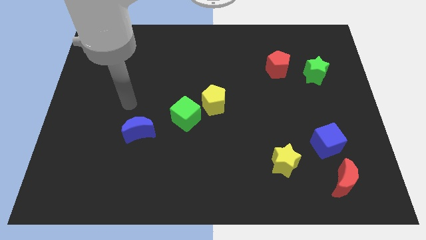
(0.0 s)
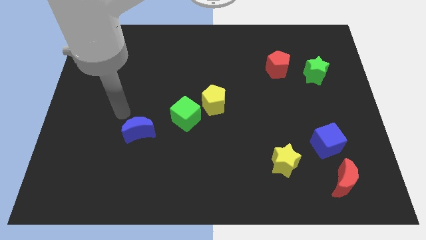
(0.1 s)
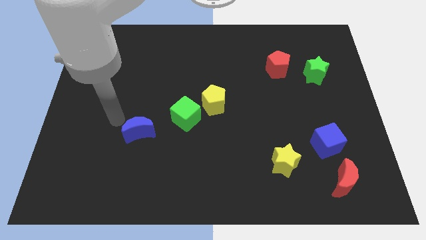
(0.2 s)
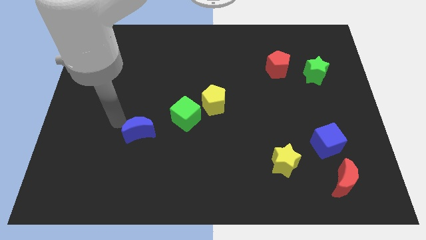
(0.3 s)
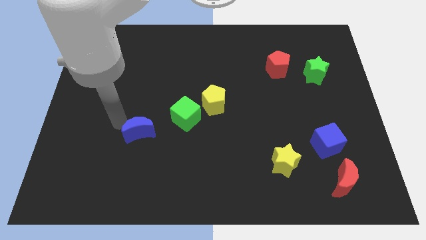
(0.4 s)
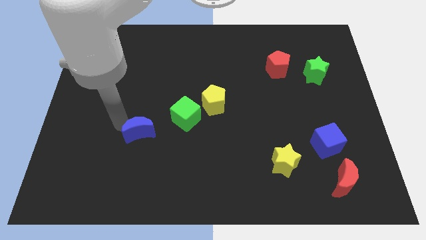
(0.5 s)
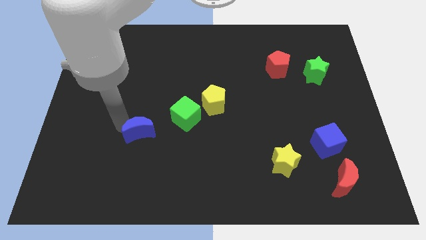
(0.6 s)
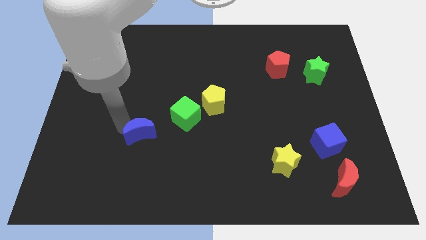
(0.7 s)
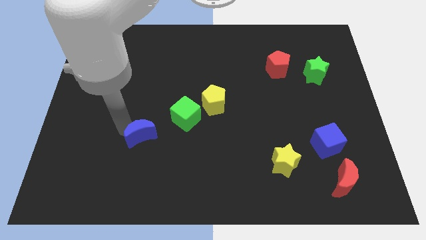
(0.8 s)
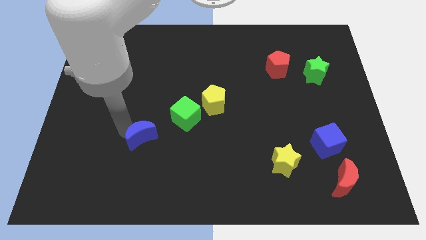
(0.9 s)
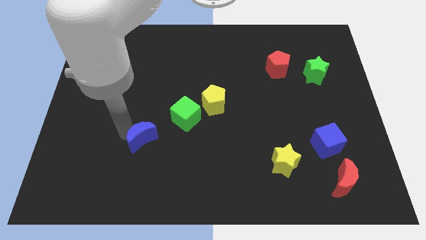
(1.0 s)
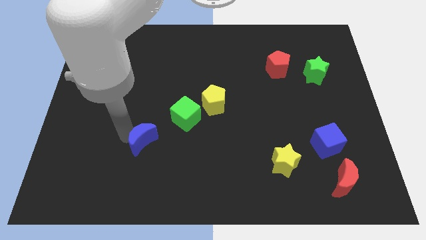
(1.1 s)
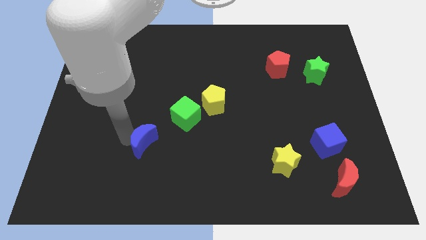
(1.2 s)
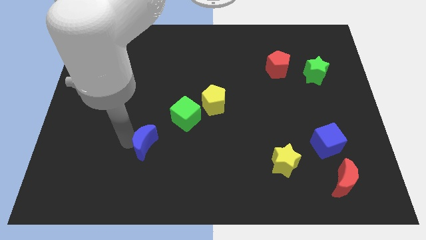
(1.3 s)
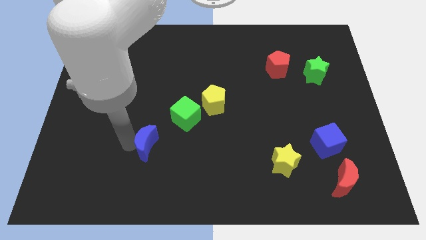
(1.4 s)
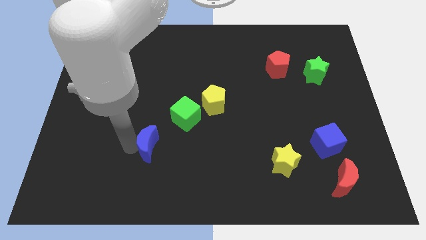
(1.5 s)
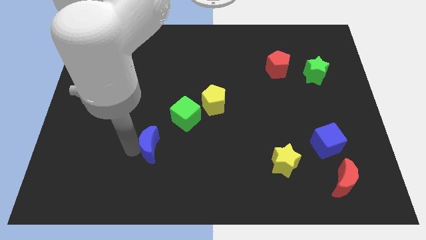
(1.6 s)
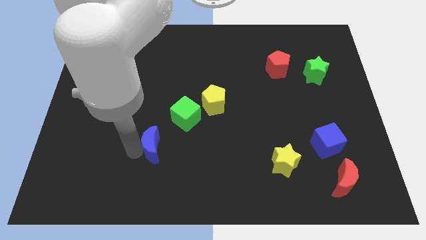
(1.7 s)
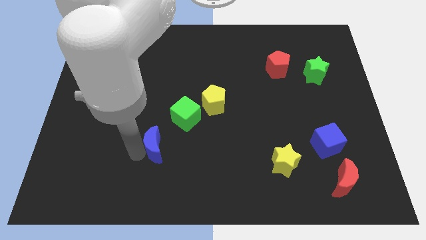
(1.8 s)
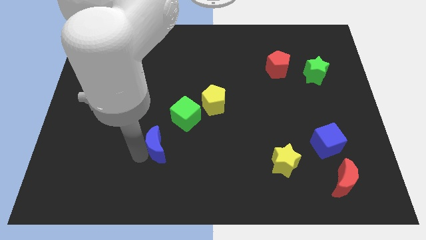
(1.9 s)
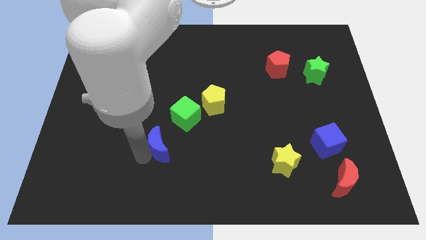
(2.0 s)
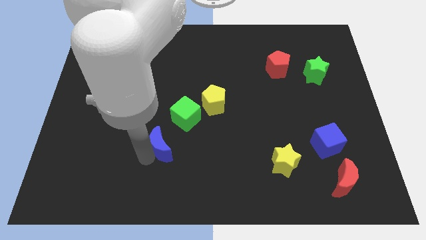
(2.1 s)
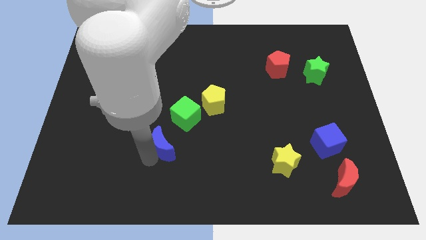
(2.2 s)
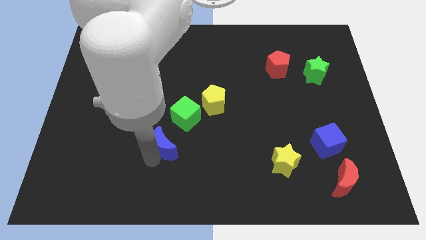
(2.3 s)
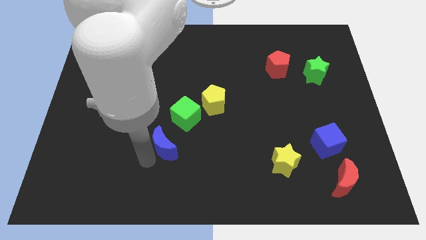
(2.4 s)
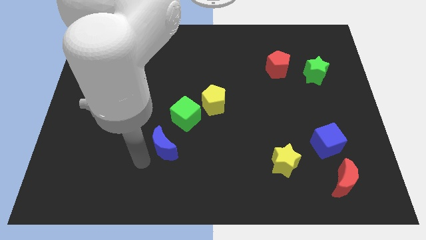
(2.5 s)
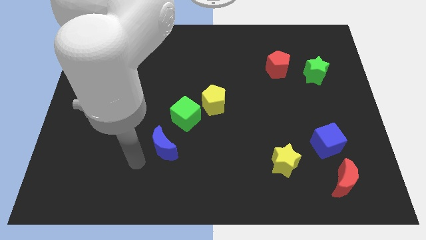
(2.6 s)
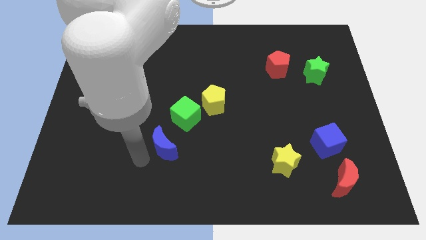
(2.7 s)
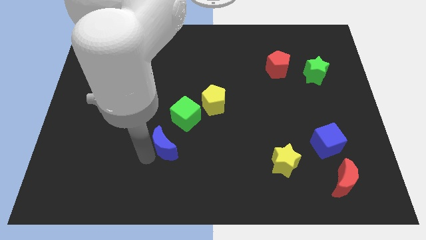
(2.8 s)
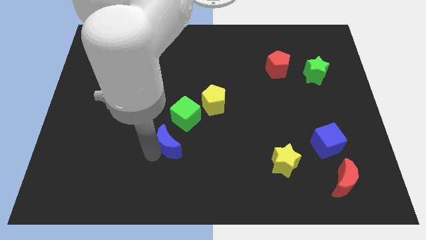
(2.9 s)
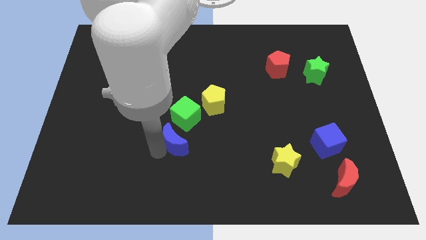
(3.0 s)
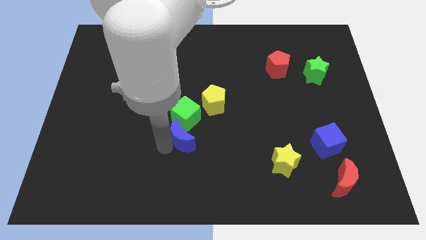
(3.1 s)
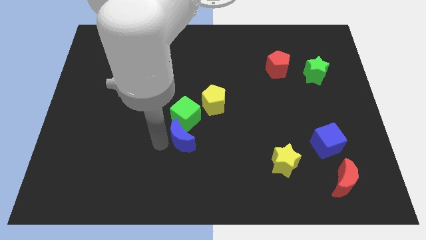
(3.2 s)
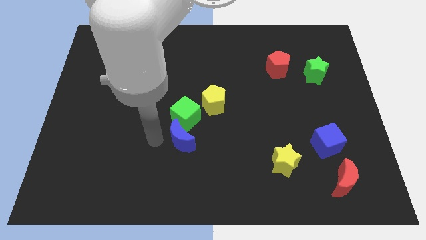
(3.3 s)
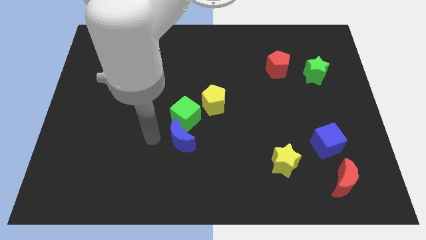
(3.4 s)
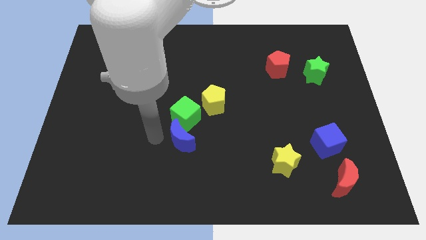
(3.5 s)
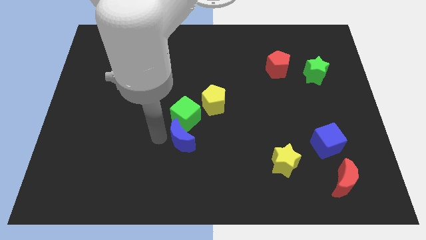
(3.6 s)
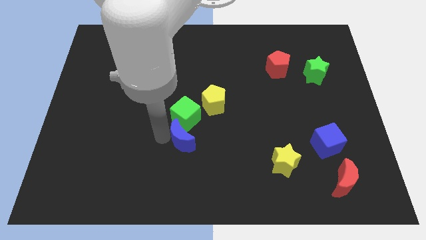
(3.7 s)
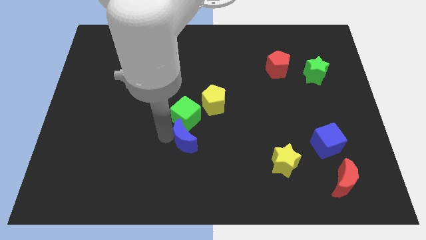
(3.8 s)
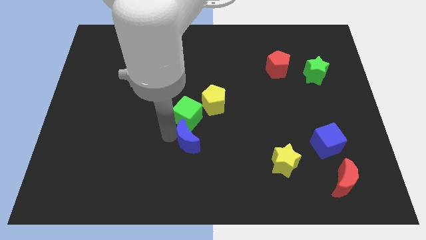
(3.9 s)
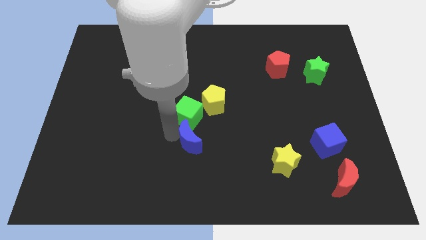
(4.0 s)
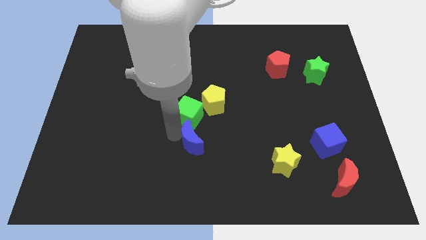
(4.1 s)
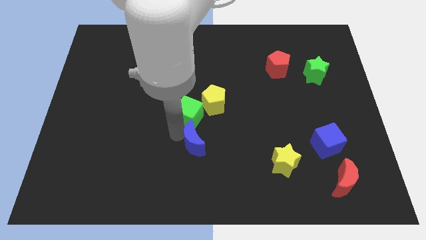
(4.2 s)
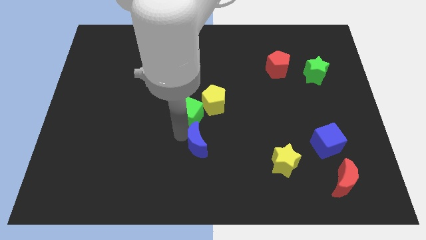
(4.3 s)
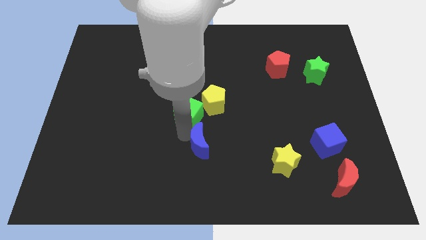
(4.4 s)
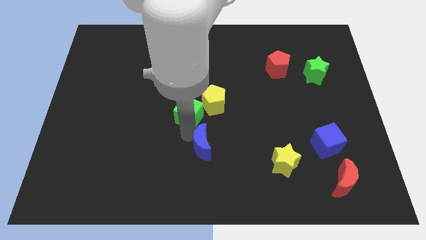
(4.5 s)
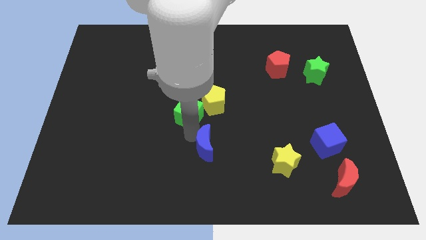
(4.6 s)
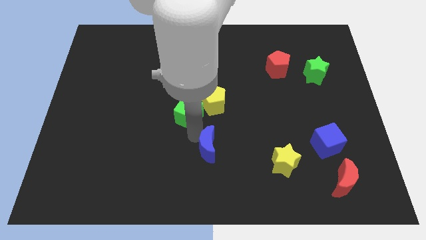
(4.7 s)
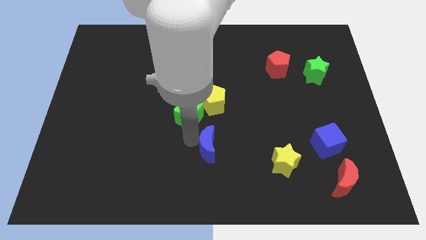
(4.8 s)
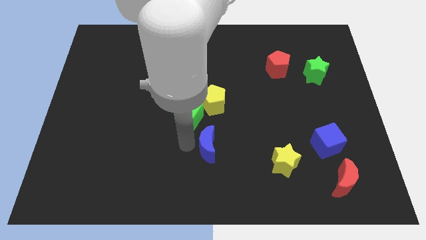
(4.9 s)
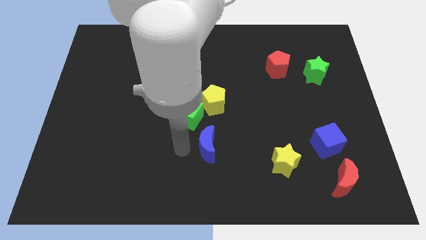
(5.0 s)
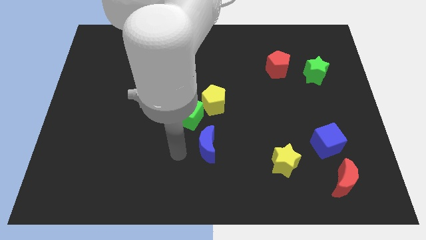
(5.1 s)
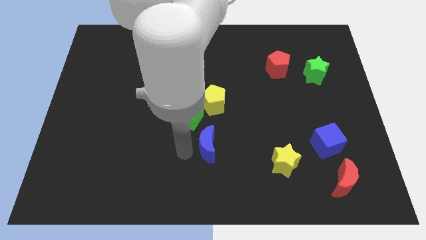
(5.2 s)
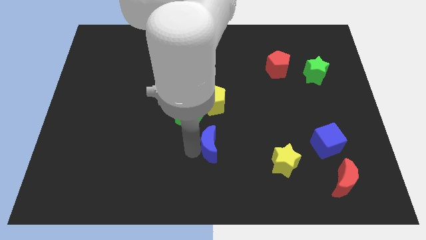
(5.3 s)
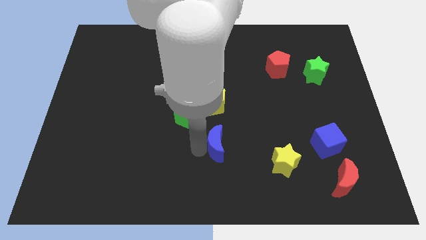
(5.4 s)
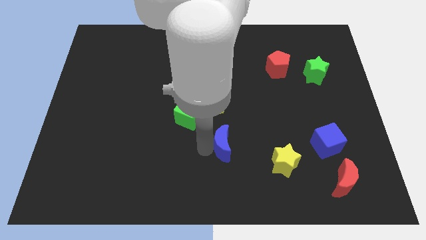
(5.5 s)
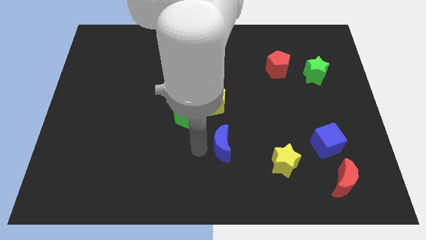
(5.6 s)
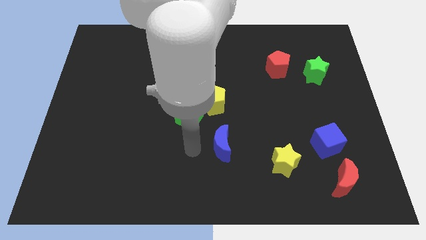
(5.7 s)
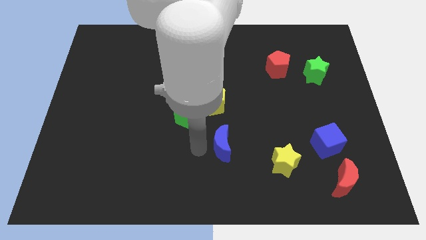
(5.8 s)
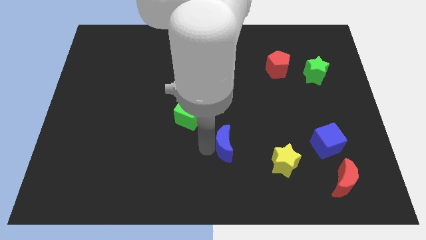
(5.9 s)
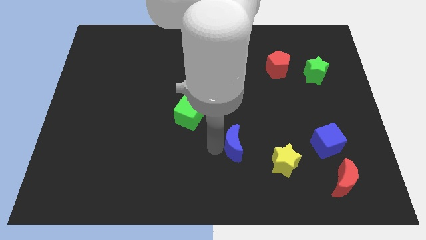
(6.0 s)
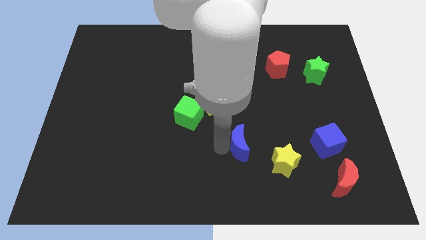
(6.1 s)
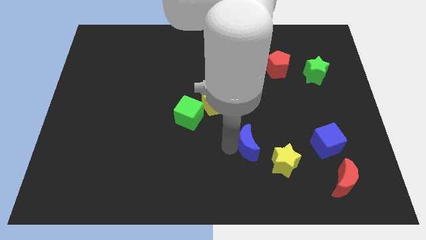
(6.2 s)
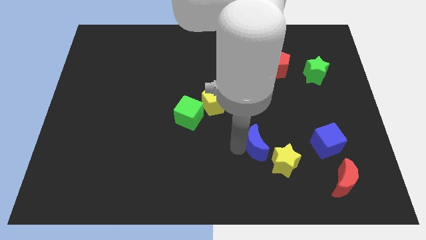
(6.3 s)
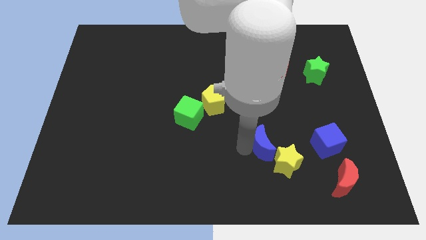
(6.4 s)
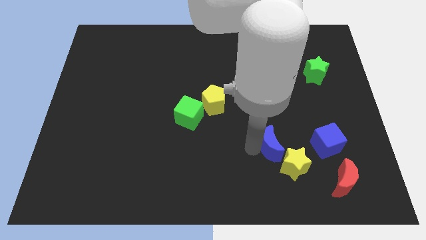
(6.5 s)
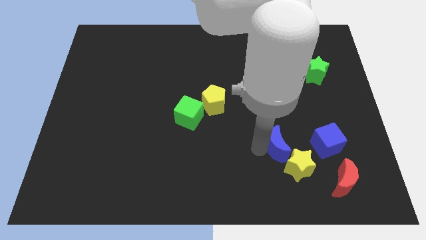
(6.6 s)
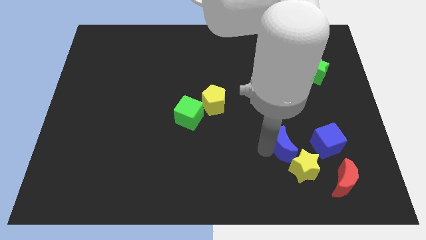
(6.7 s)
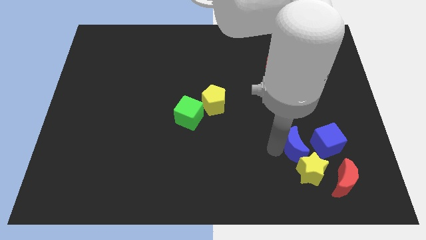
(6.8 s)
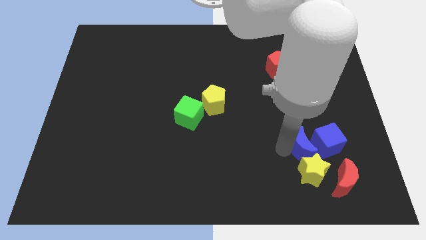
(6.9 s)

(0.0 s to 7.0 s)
move the blue moon towards the blue cube

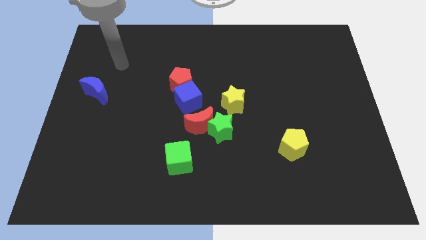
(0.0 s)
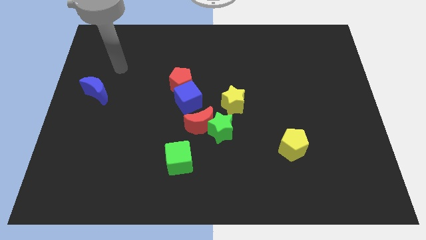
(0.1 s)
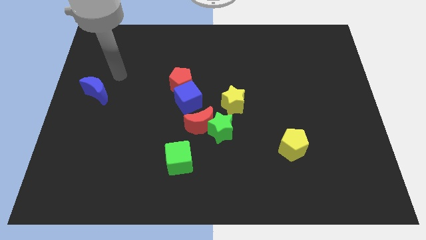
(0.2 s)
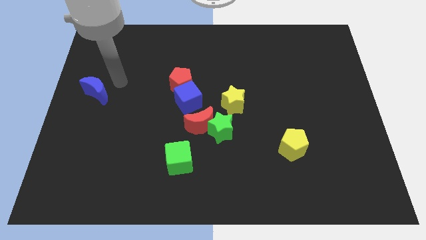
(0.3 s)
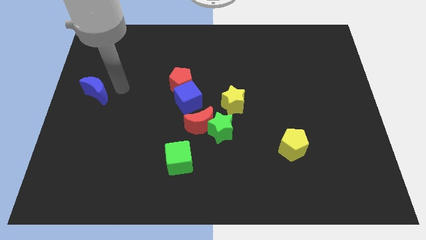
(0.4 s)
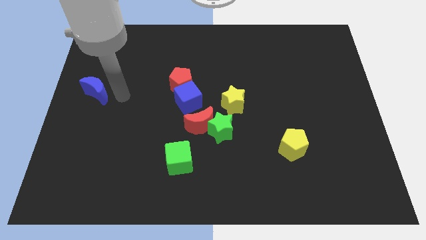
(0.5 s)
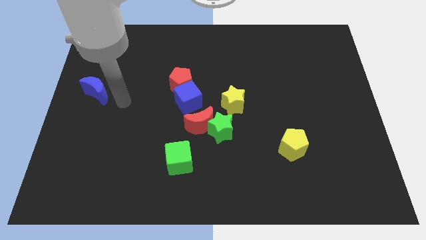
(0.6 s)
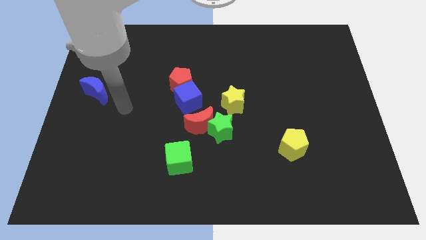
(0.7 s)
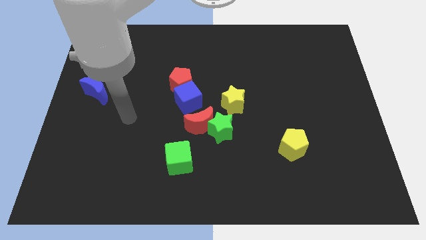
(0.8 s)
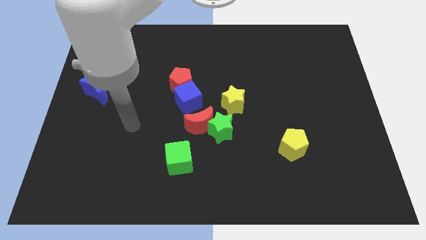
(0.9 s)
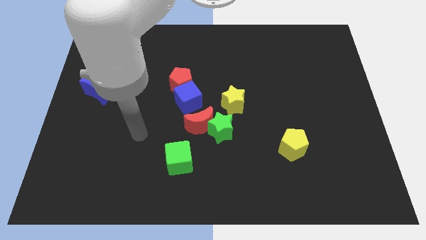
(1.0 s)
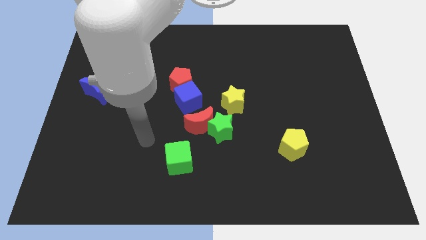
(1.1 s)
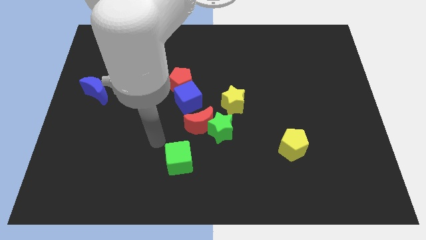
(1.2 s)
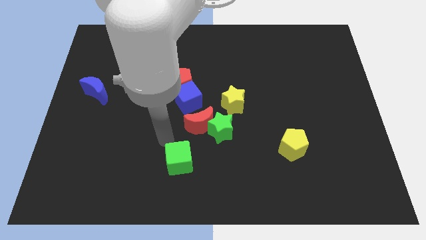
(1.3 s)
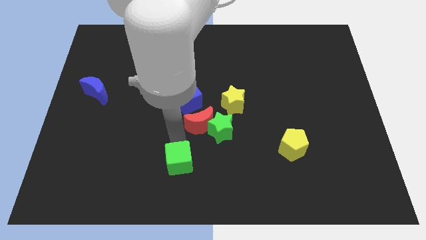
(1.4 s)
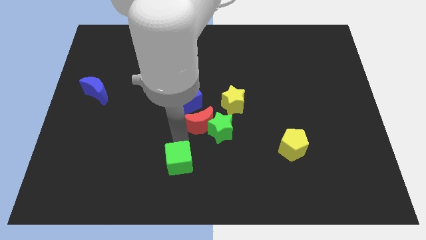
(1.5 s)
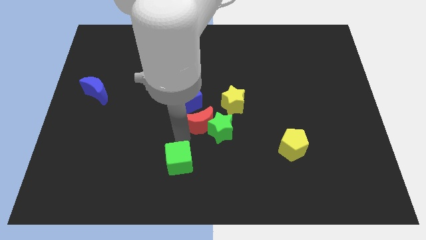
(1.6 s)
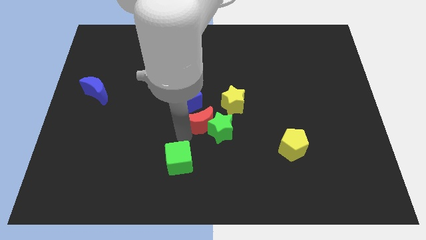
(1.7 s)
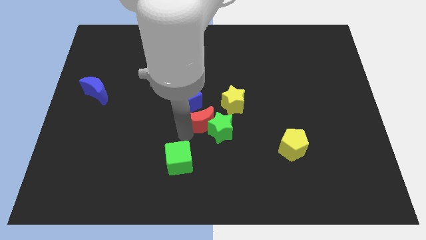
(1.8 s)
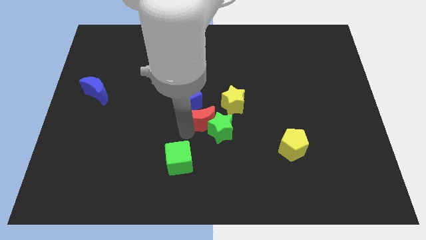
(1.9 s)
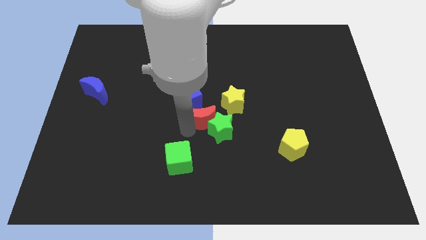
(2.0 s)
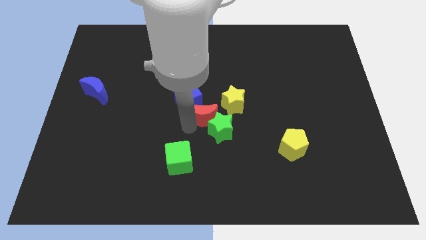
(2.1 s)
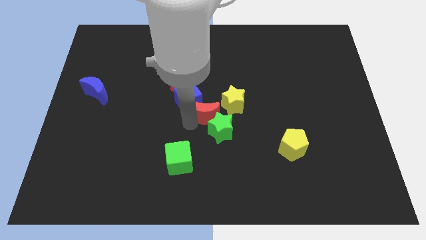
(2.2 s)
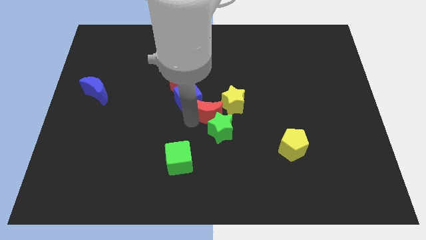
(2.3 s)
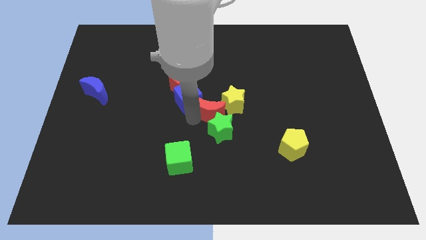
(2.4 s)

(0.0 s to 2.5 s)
push the red moon close to the yellow star
